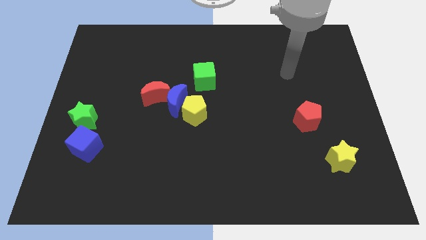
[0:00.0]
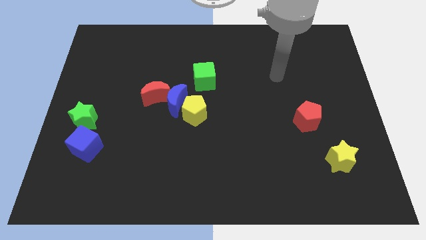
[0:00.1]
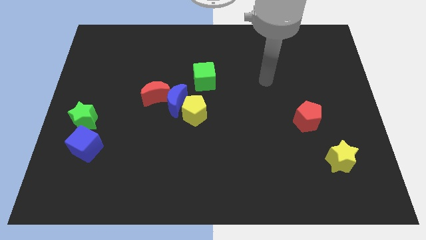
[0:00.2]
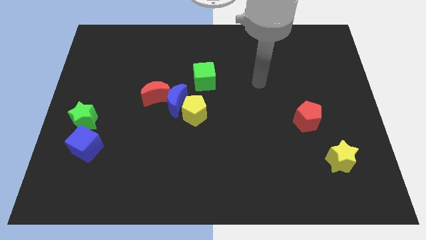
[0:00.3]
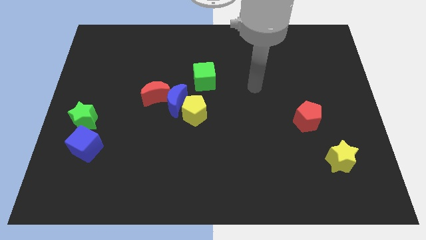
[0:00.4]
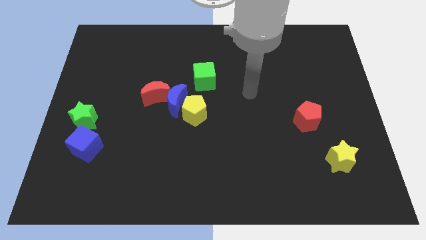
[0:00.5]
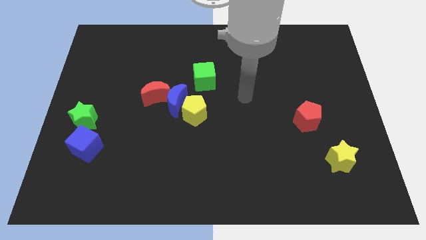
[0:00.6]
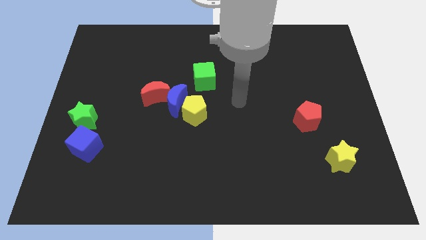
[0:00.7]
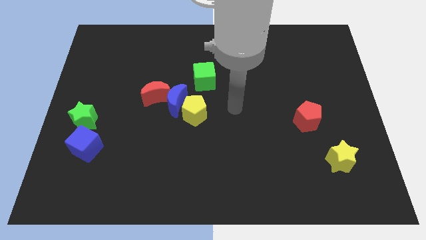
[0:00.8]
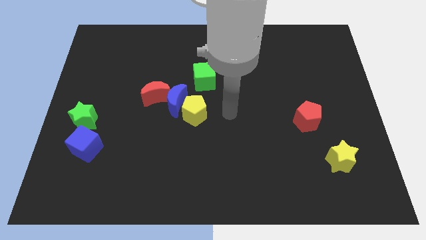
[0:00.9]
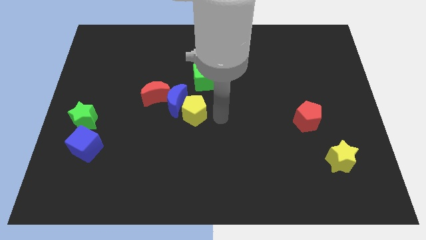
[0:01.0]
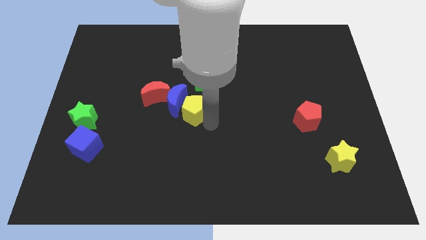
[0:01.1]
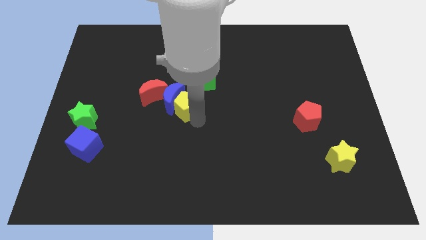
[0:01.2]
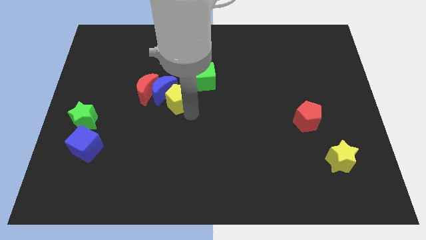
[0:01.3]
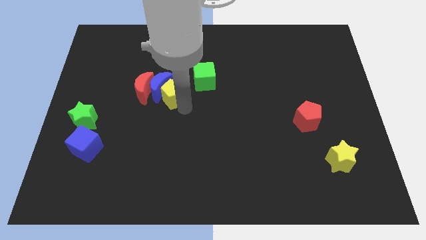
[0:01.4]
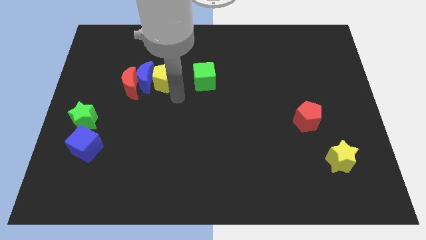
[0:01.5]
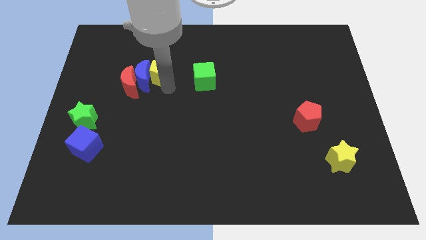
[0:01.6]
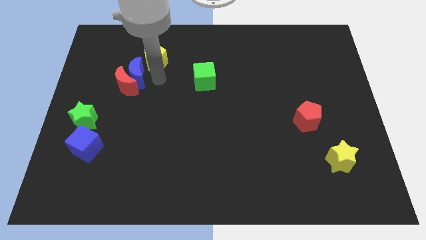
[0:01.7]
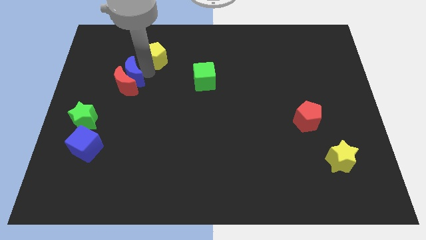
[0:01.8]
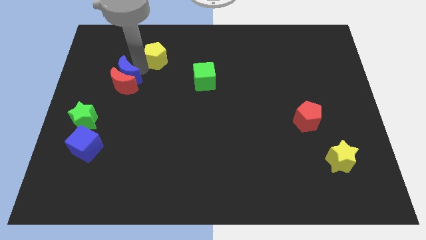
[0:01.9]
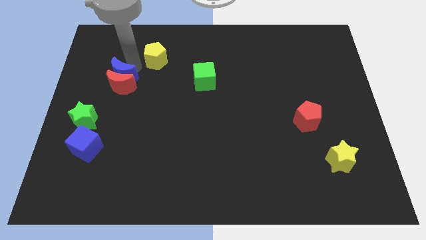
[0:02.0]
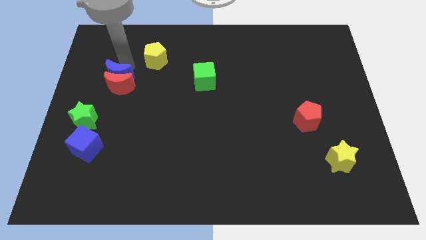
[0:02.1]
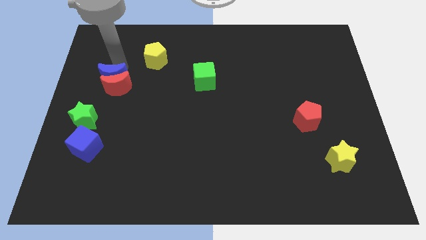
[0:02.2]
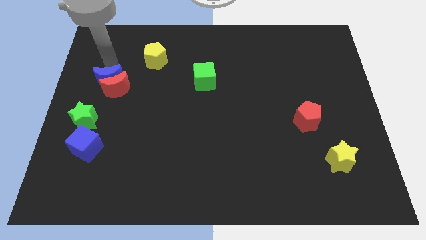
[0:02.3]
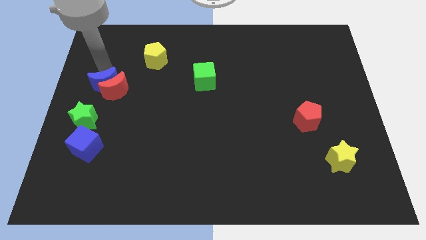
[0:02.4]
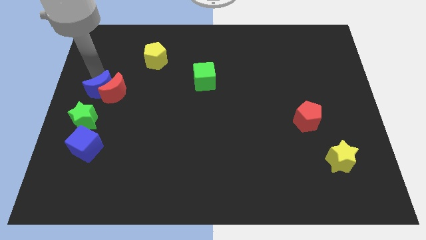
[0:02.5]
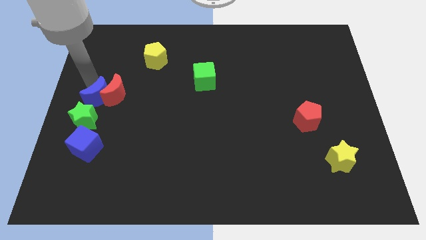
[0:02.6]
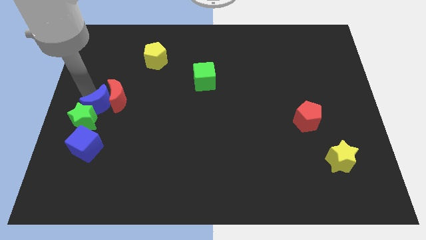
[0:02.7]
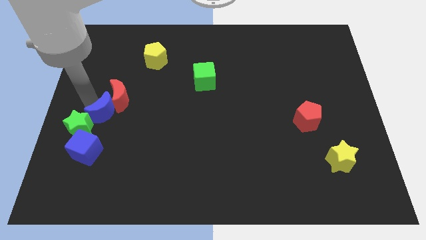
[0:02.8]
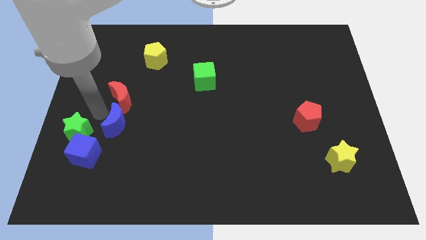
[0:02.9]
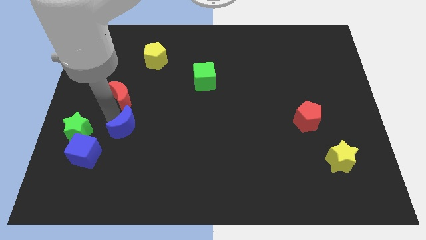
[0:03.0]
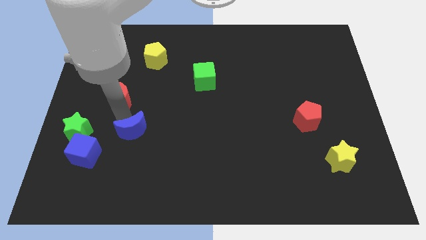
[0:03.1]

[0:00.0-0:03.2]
separate the red moon from the blue moon

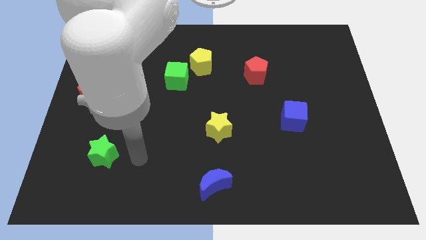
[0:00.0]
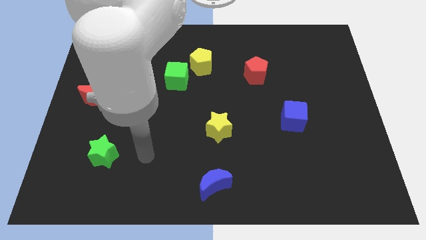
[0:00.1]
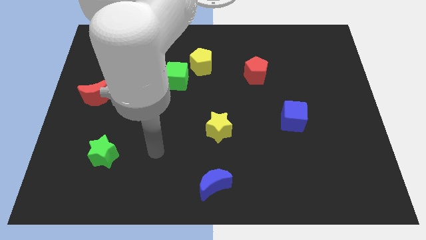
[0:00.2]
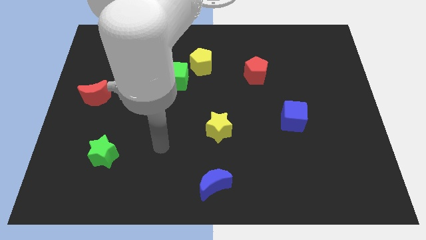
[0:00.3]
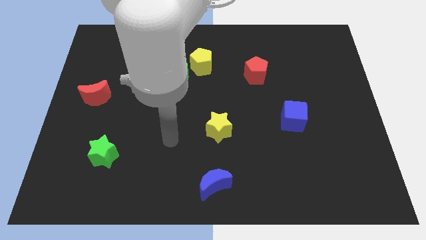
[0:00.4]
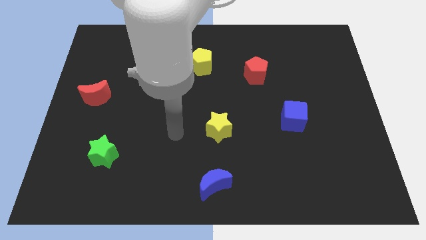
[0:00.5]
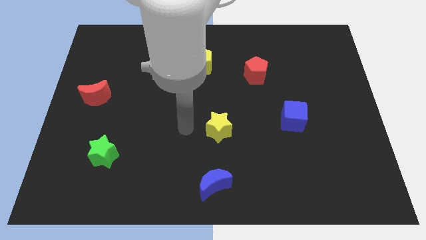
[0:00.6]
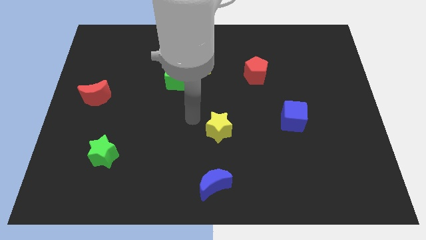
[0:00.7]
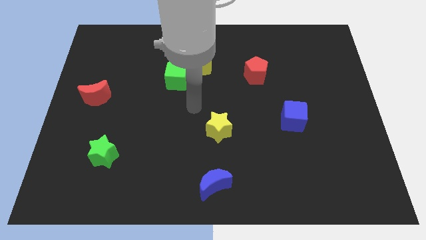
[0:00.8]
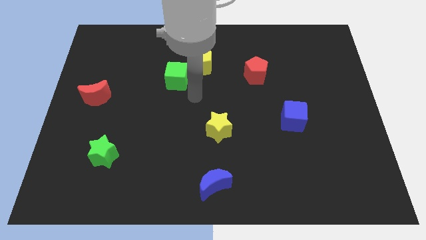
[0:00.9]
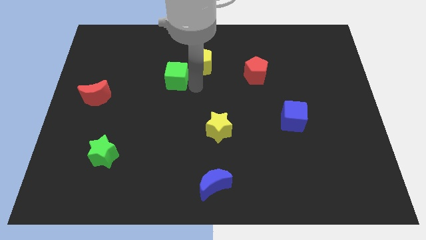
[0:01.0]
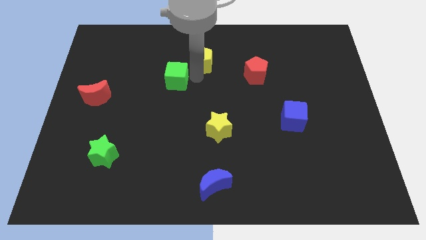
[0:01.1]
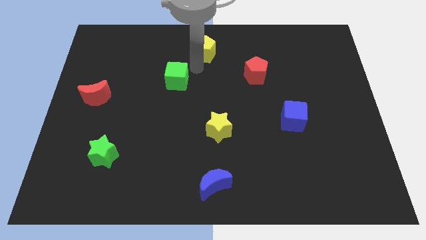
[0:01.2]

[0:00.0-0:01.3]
move the green cube away from the yellow pentagon

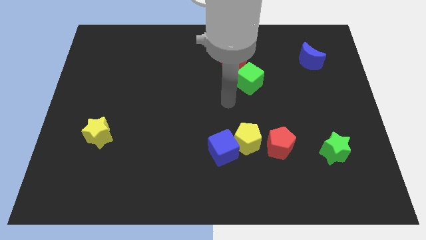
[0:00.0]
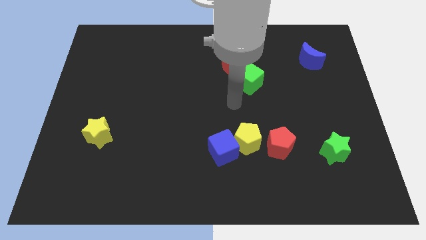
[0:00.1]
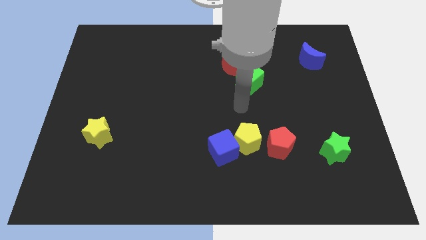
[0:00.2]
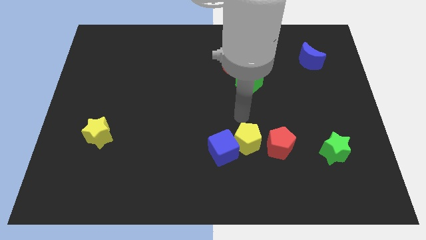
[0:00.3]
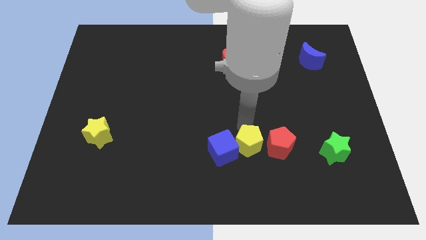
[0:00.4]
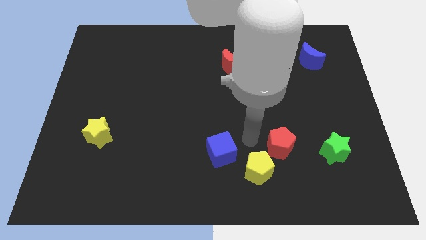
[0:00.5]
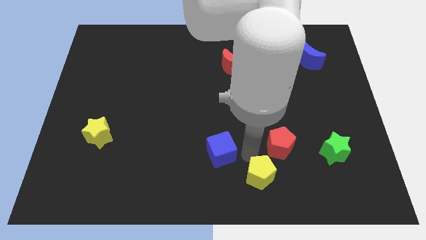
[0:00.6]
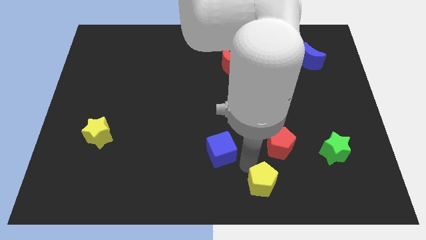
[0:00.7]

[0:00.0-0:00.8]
move the blue cube away from the yellow pentagon

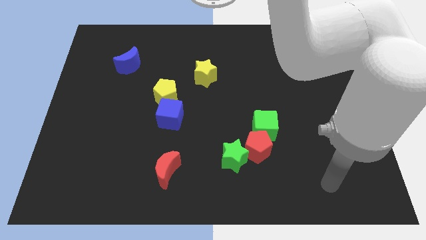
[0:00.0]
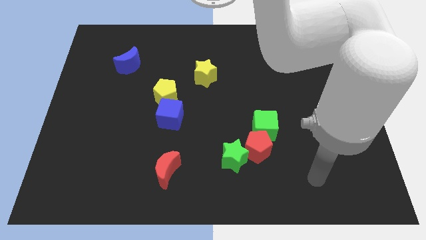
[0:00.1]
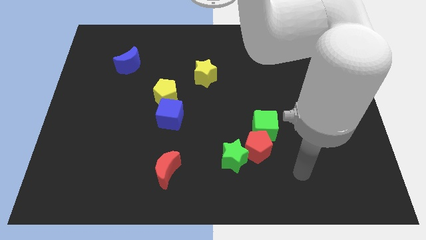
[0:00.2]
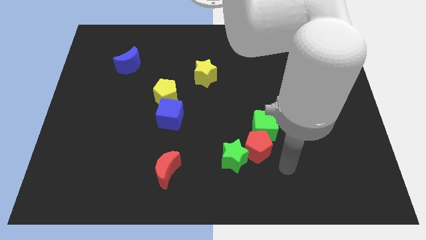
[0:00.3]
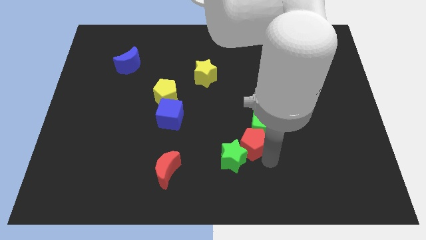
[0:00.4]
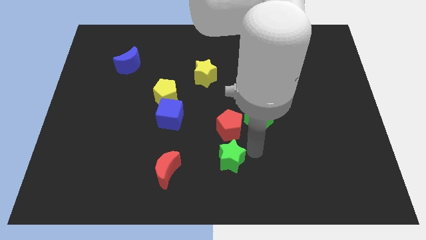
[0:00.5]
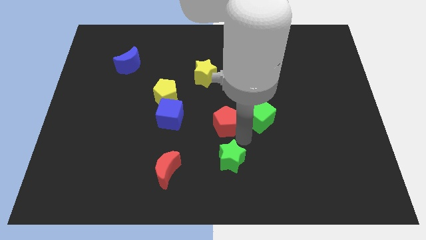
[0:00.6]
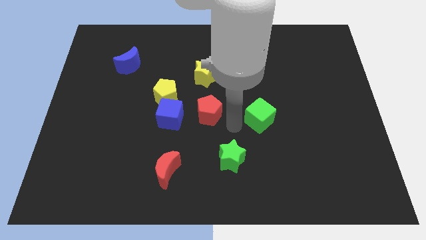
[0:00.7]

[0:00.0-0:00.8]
pull the green cube apart from the red pentagon

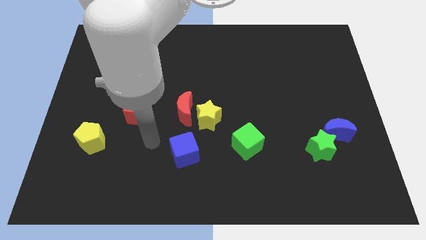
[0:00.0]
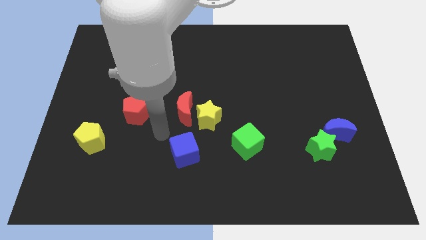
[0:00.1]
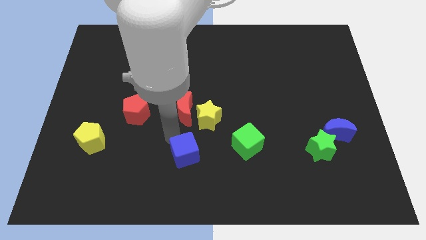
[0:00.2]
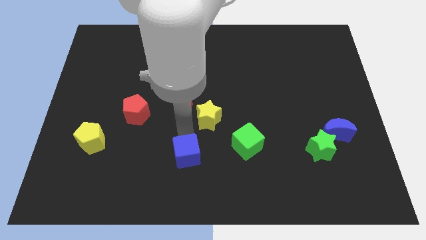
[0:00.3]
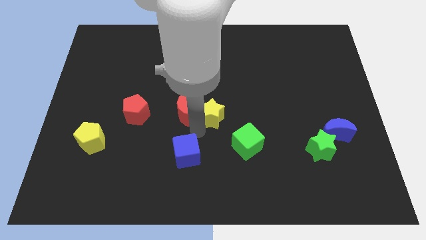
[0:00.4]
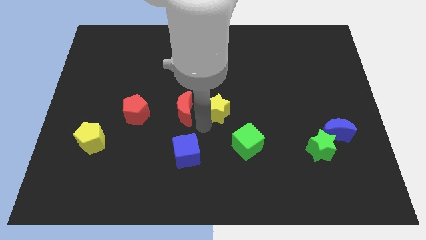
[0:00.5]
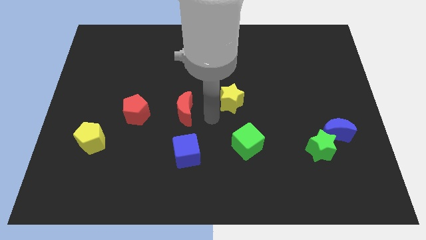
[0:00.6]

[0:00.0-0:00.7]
move the red moon away from the yellow star

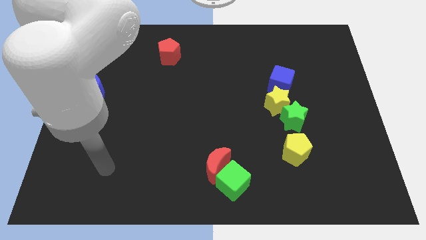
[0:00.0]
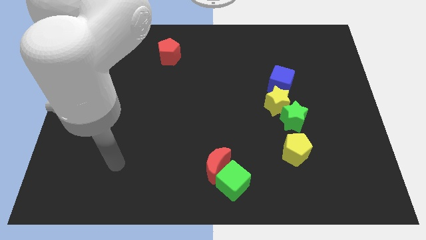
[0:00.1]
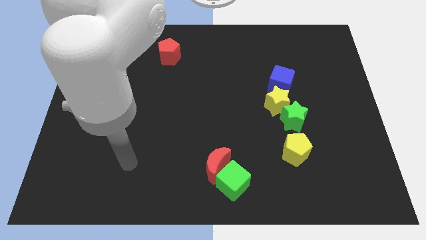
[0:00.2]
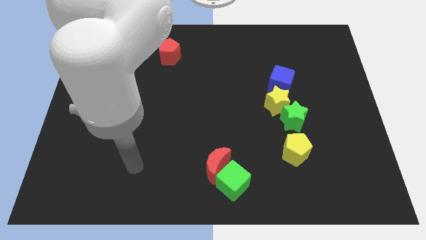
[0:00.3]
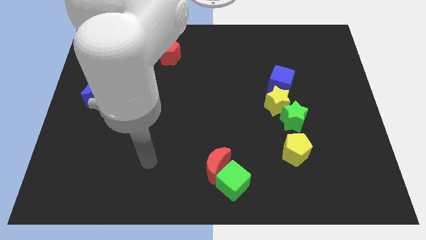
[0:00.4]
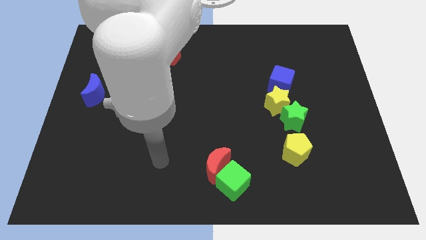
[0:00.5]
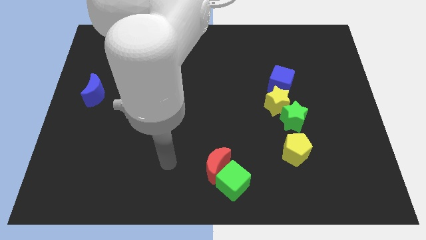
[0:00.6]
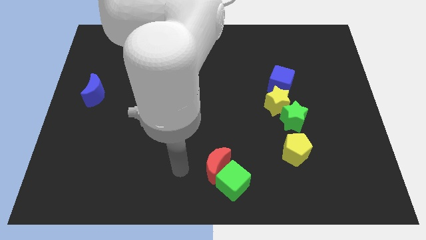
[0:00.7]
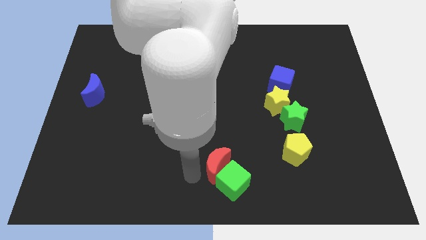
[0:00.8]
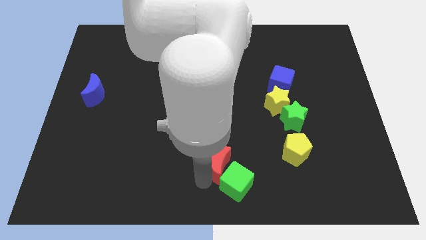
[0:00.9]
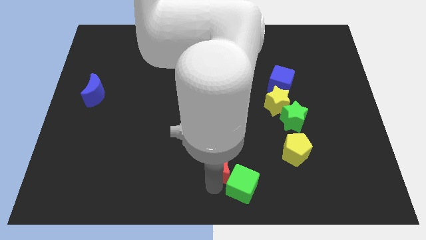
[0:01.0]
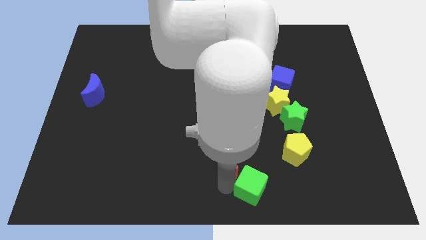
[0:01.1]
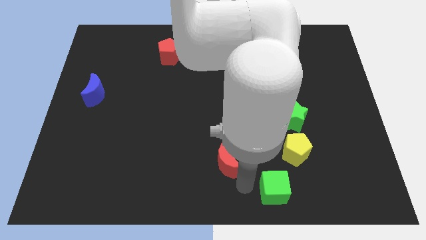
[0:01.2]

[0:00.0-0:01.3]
pull the red moon apart from the green cube

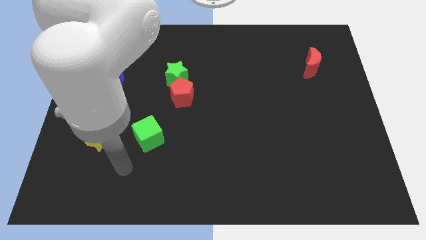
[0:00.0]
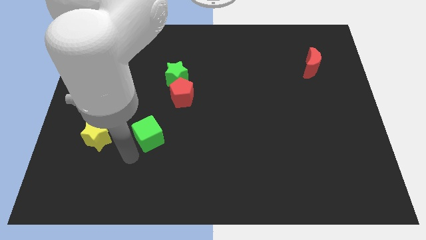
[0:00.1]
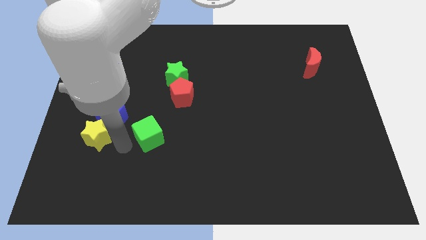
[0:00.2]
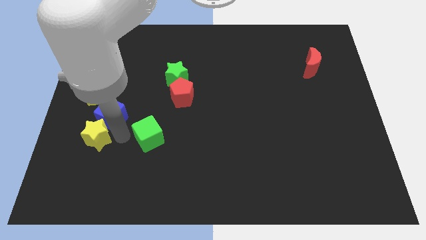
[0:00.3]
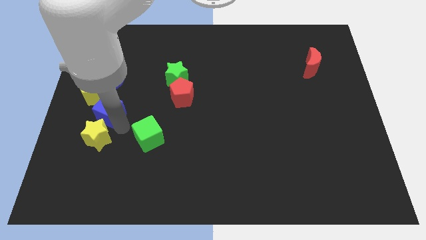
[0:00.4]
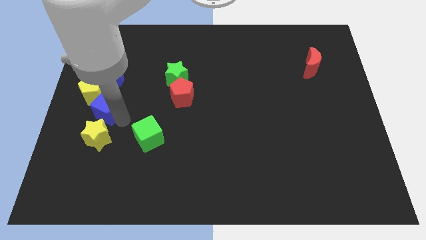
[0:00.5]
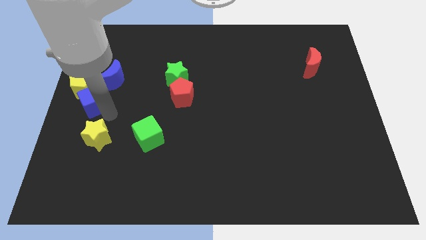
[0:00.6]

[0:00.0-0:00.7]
move the yellow star away from the blue cube

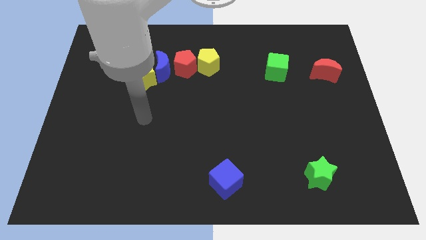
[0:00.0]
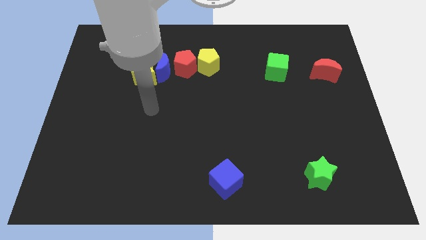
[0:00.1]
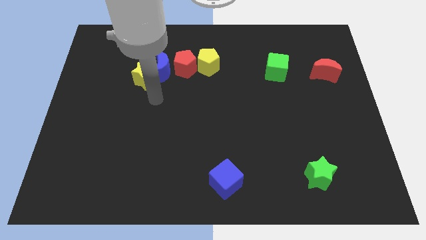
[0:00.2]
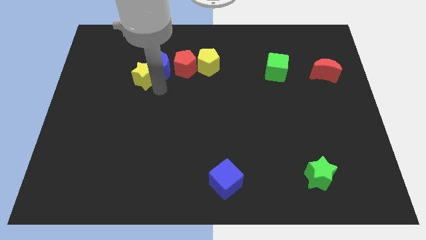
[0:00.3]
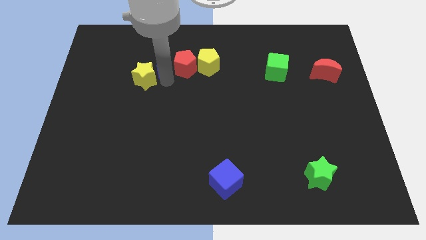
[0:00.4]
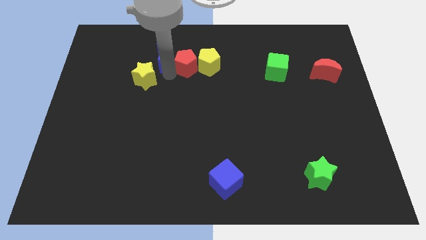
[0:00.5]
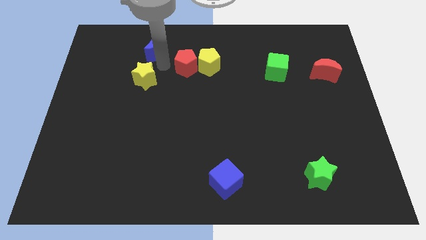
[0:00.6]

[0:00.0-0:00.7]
move the yellow star away from the blue moon
